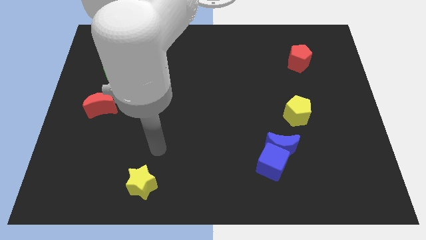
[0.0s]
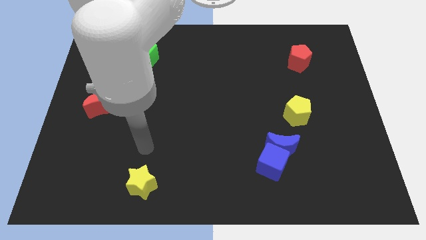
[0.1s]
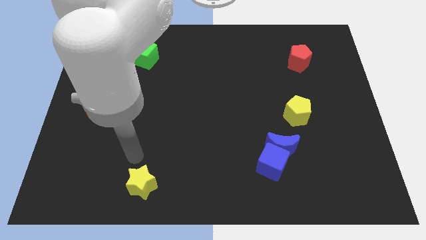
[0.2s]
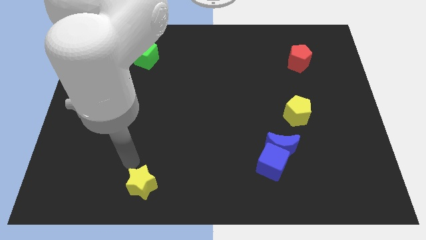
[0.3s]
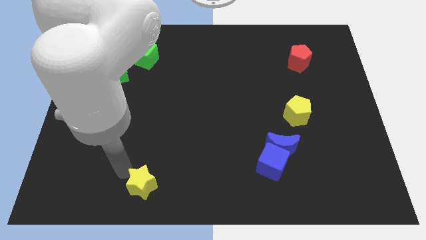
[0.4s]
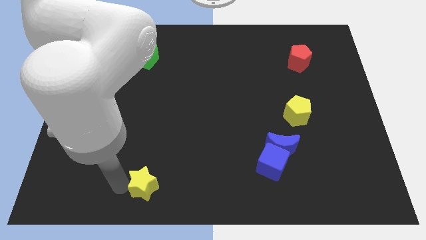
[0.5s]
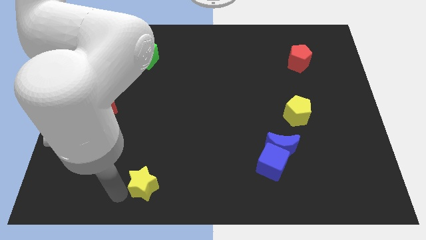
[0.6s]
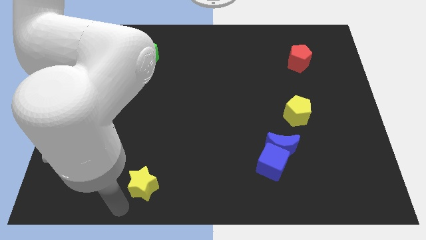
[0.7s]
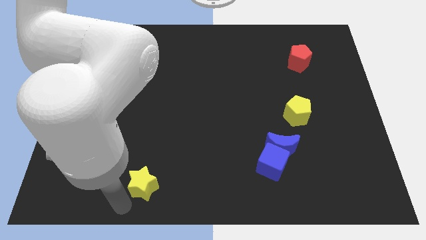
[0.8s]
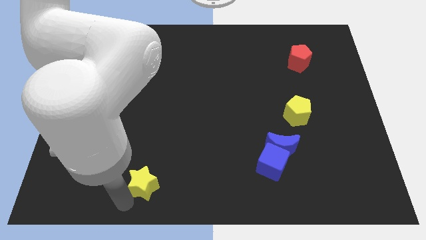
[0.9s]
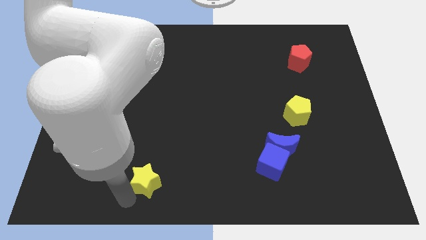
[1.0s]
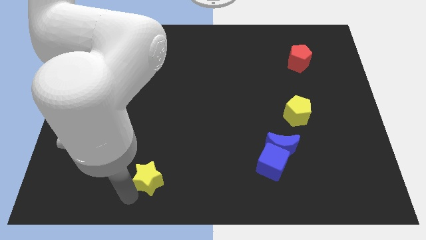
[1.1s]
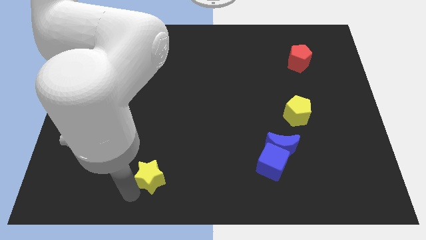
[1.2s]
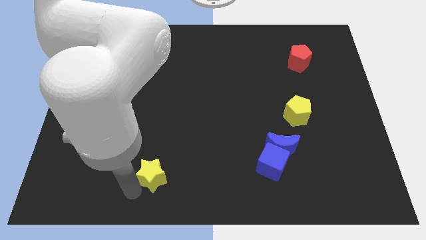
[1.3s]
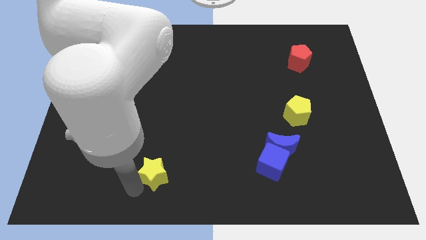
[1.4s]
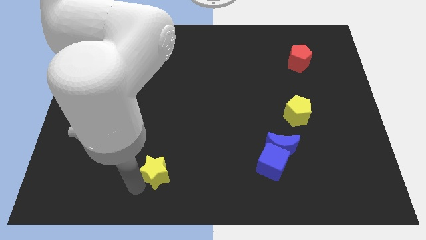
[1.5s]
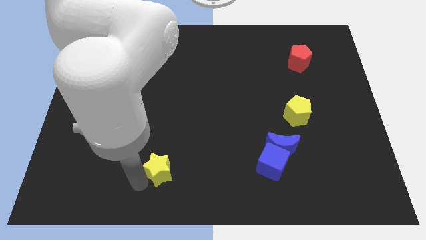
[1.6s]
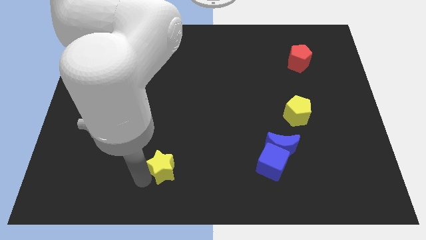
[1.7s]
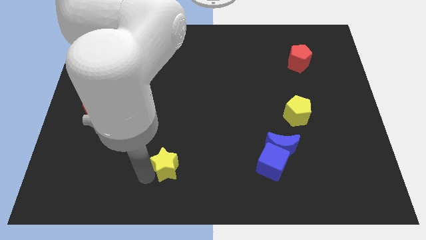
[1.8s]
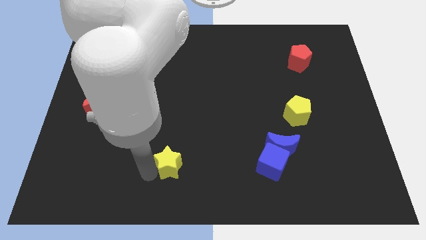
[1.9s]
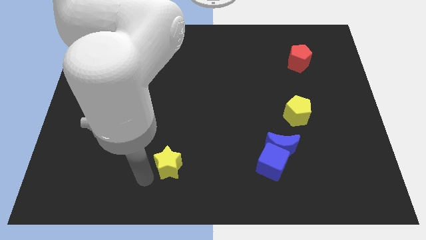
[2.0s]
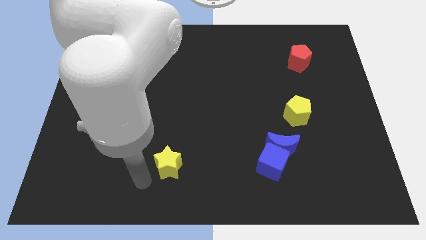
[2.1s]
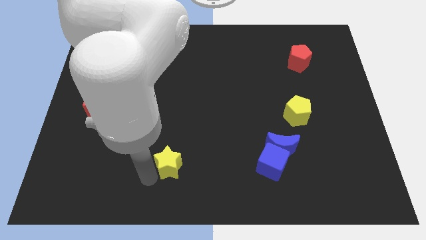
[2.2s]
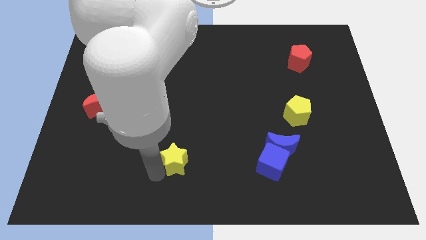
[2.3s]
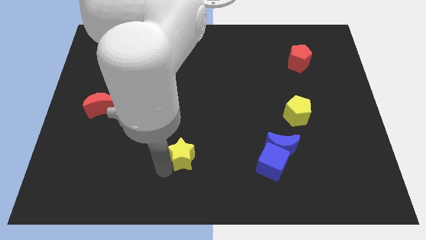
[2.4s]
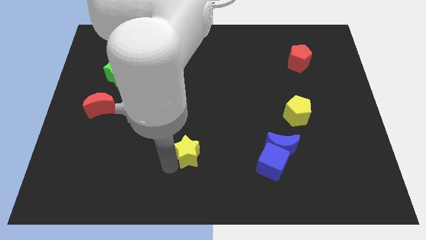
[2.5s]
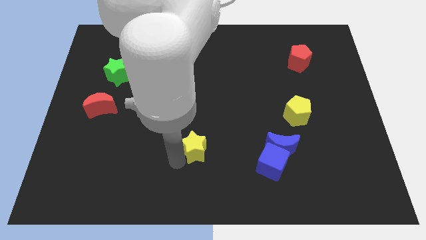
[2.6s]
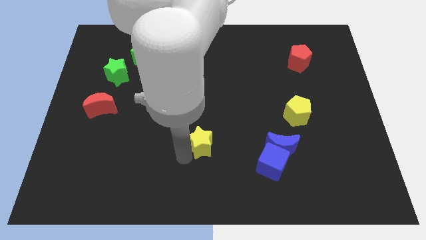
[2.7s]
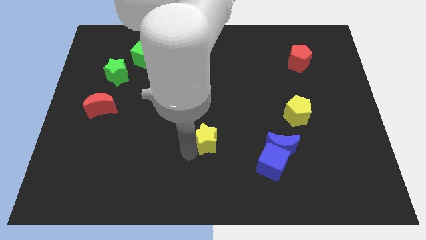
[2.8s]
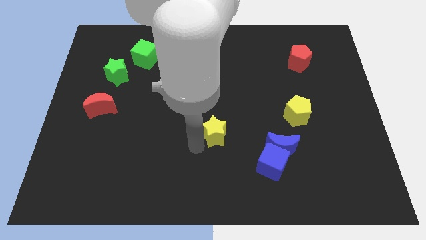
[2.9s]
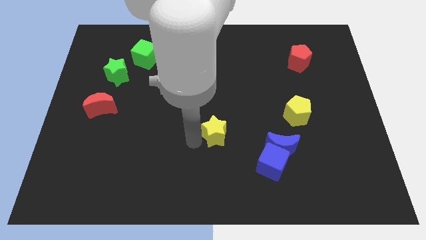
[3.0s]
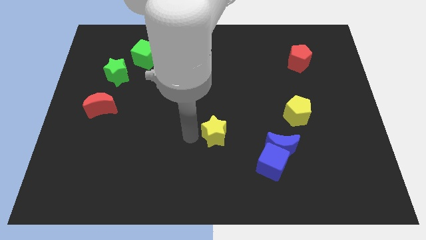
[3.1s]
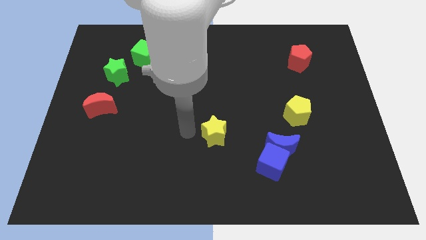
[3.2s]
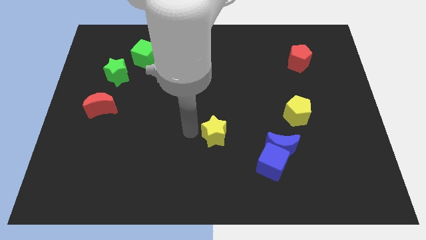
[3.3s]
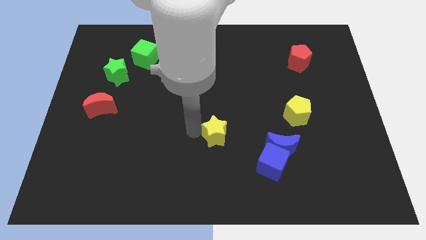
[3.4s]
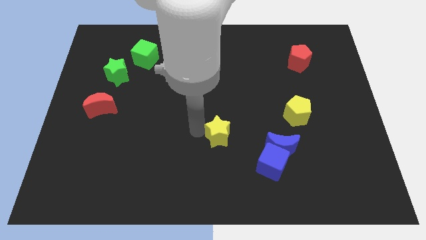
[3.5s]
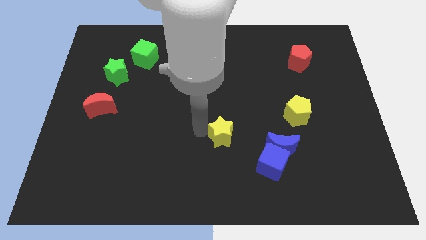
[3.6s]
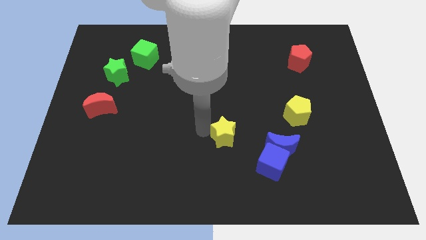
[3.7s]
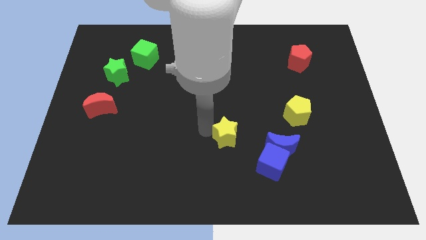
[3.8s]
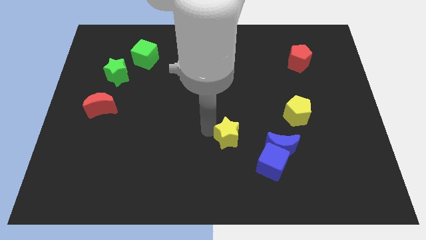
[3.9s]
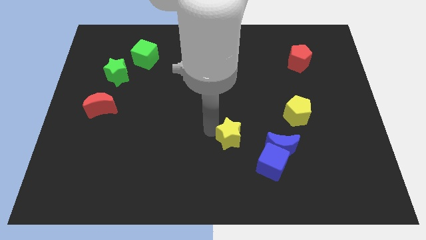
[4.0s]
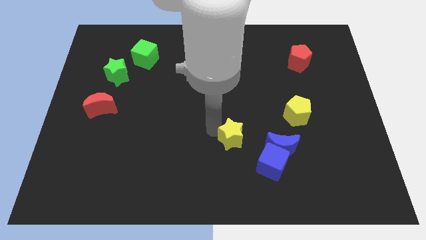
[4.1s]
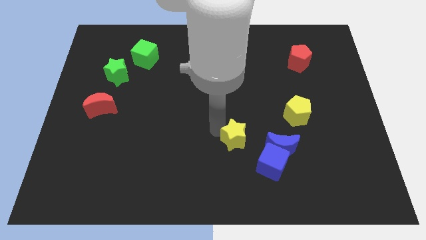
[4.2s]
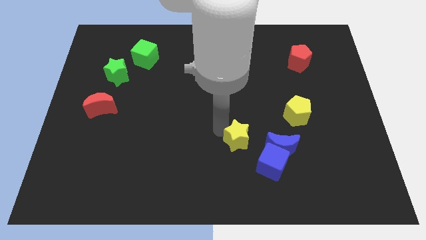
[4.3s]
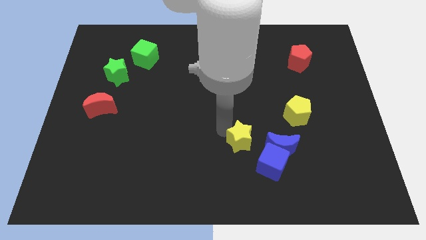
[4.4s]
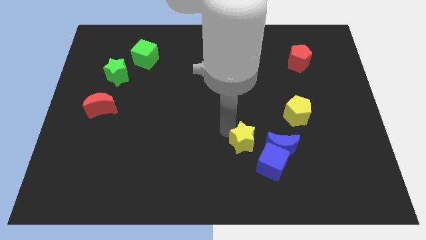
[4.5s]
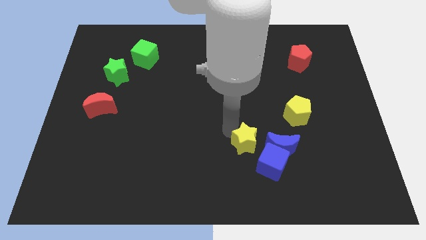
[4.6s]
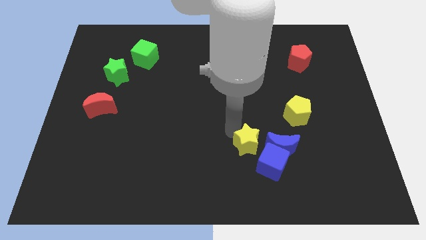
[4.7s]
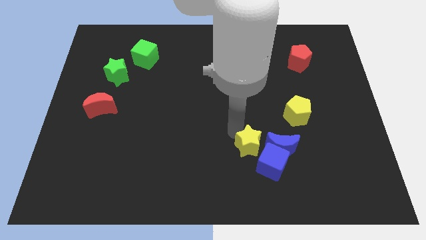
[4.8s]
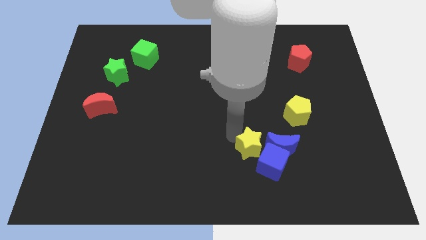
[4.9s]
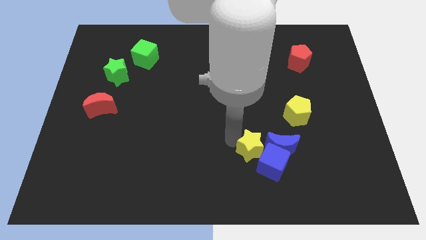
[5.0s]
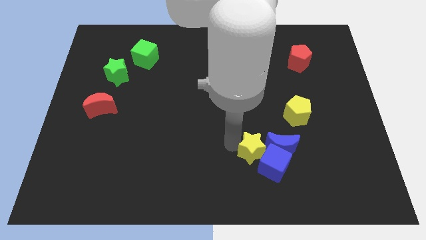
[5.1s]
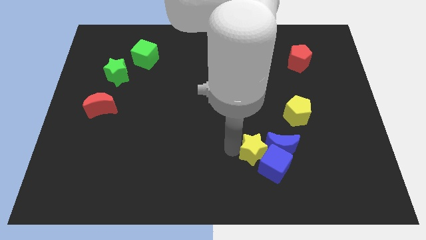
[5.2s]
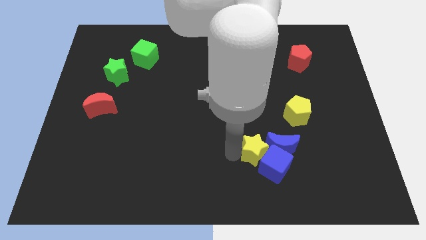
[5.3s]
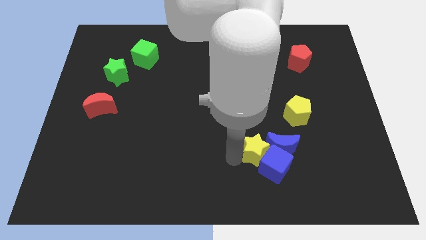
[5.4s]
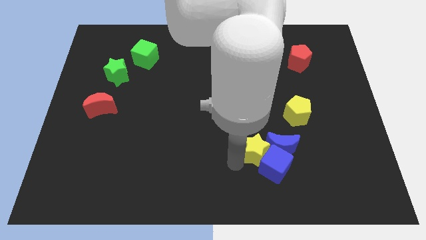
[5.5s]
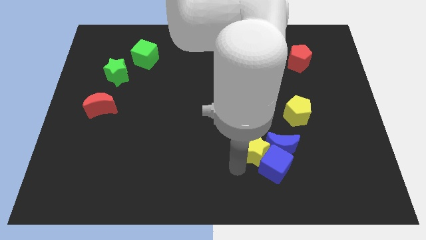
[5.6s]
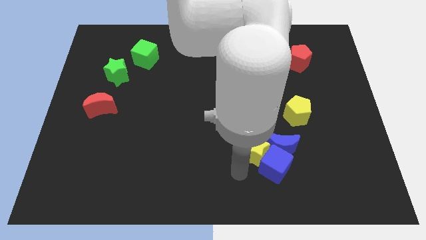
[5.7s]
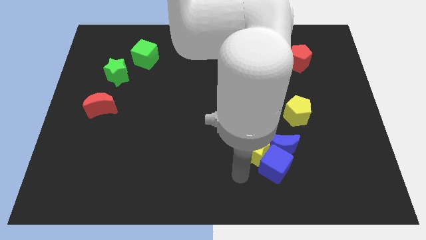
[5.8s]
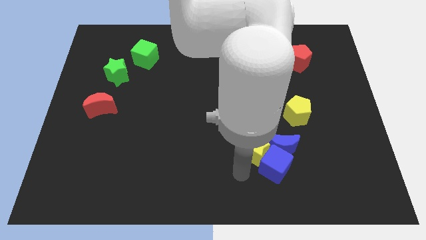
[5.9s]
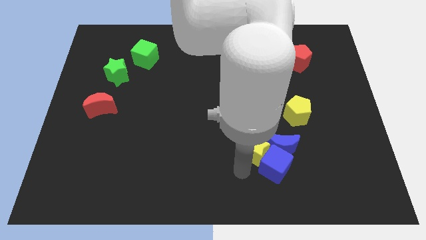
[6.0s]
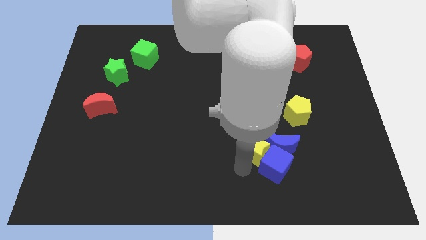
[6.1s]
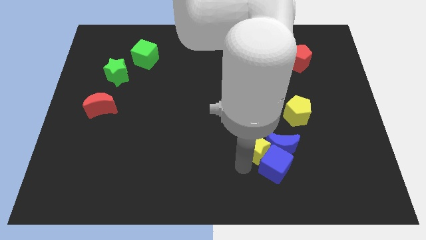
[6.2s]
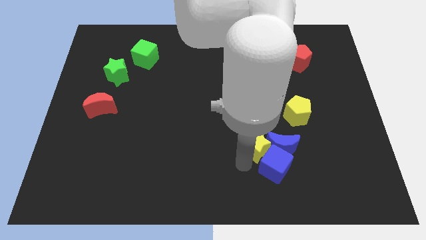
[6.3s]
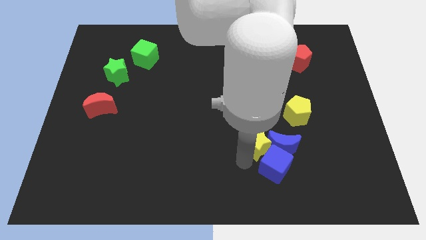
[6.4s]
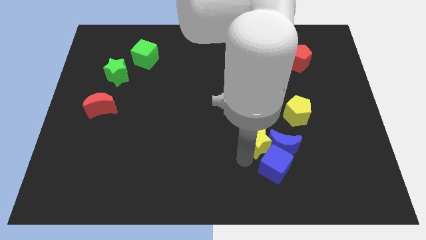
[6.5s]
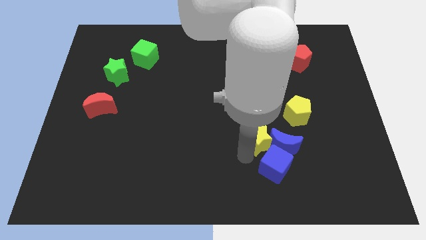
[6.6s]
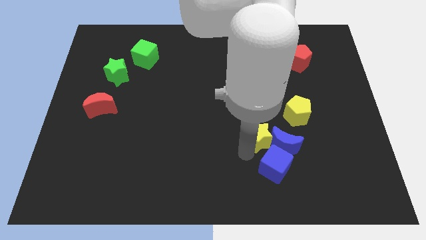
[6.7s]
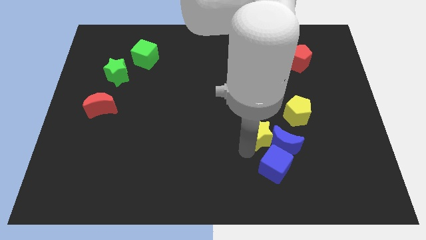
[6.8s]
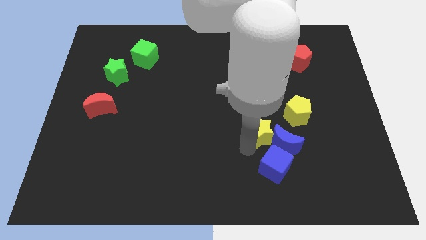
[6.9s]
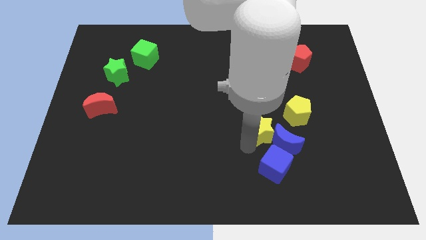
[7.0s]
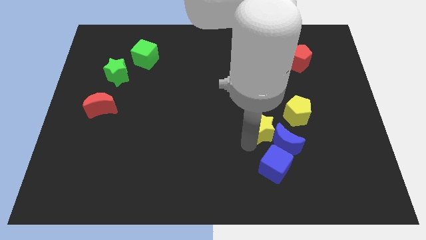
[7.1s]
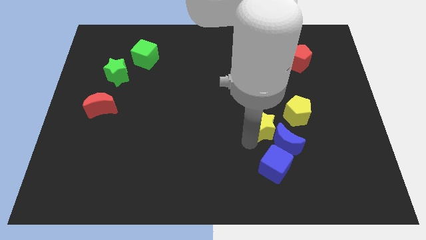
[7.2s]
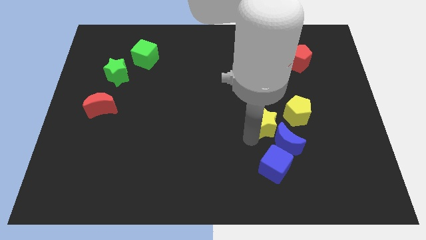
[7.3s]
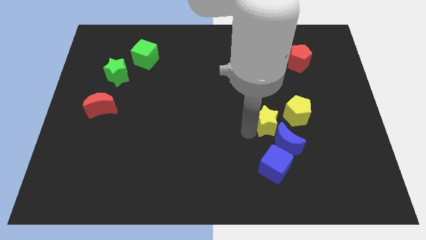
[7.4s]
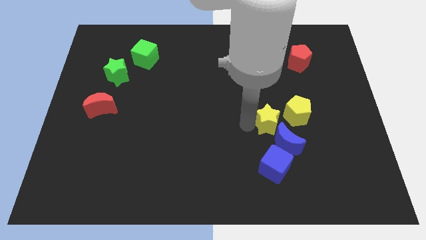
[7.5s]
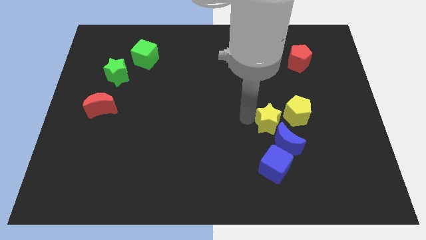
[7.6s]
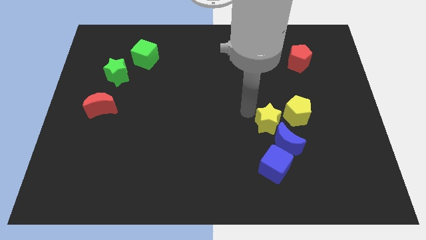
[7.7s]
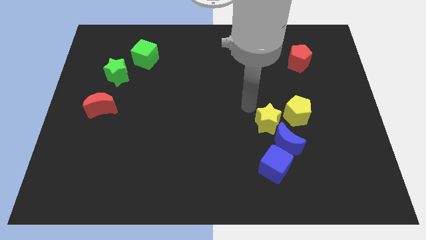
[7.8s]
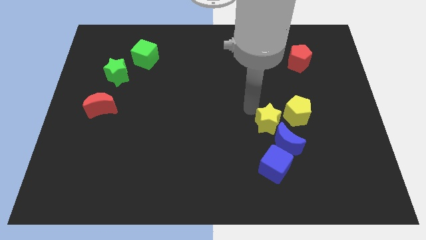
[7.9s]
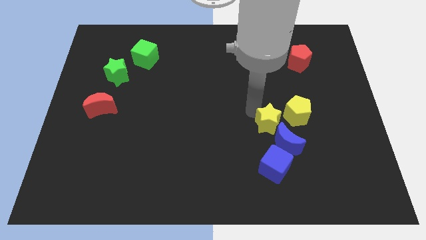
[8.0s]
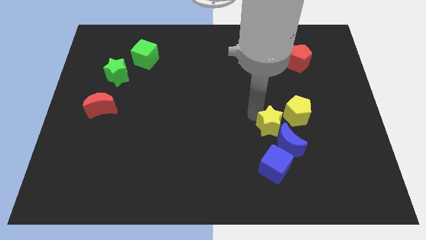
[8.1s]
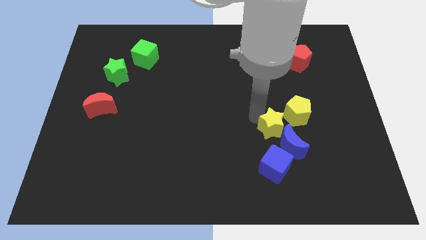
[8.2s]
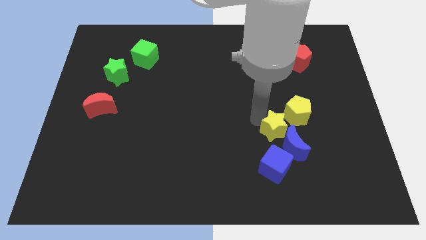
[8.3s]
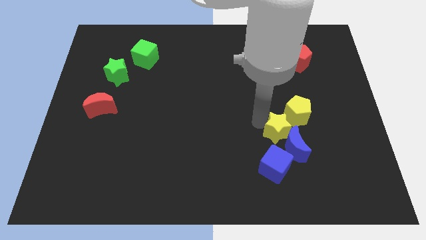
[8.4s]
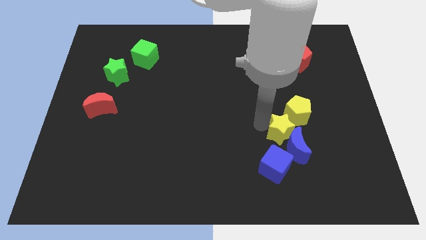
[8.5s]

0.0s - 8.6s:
push the yellow star to the top right of the blue cube
